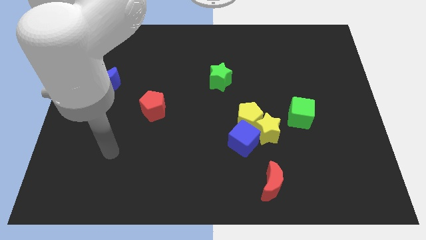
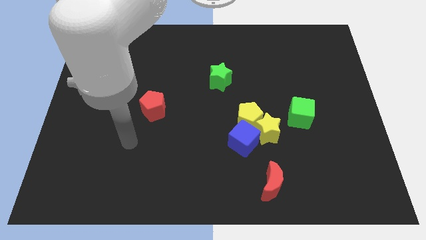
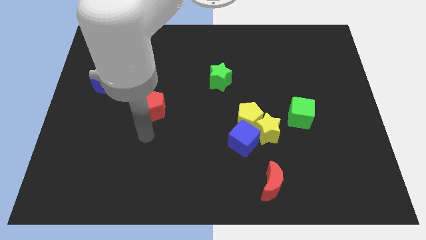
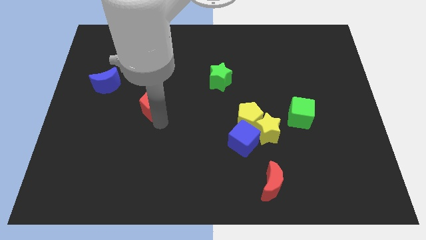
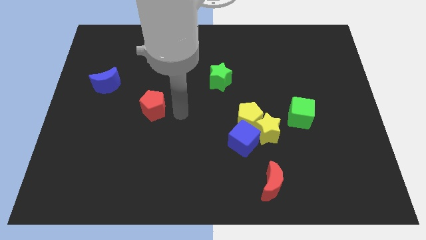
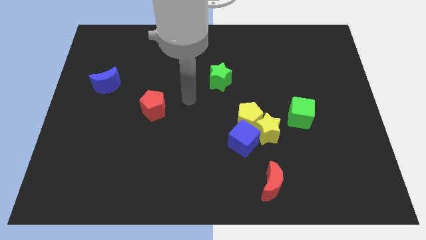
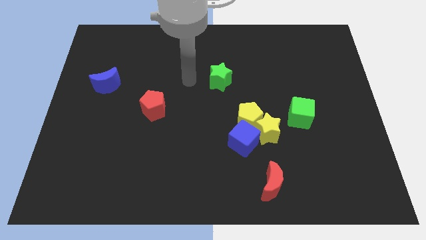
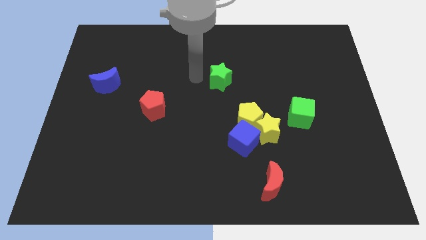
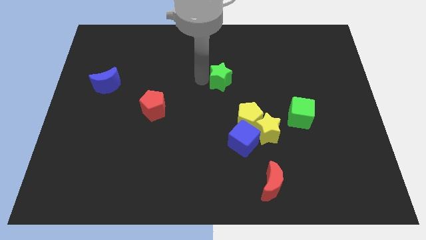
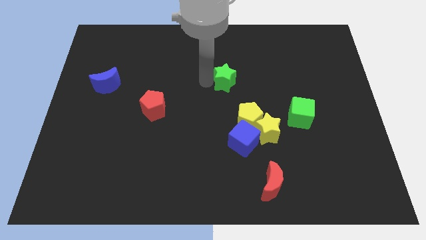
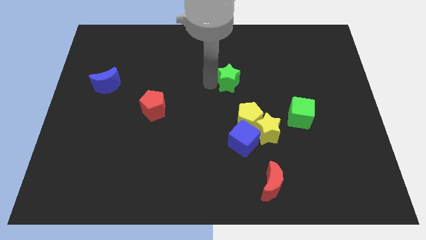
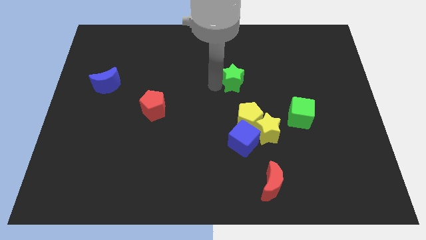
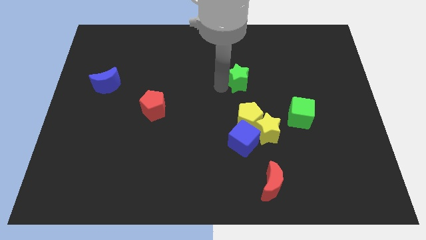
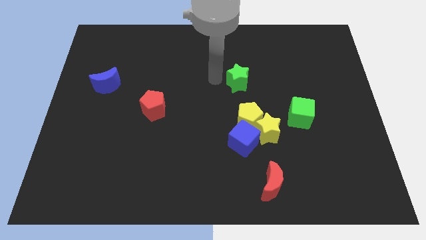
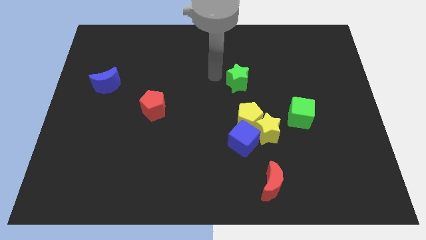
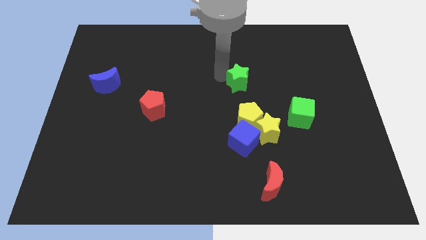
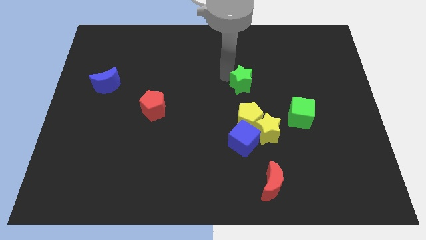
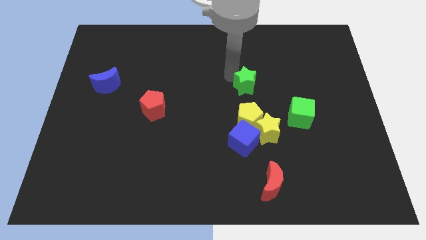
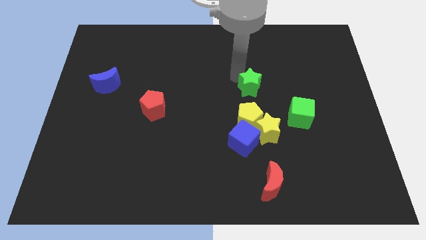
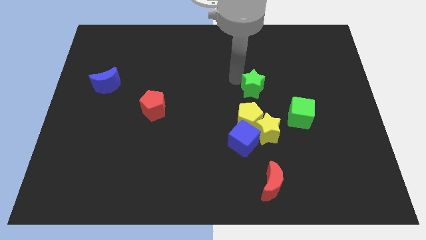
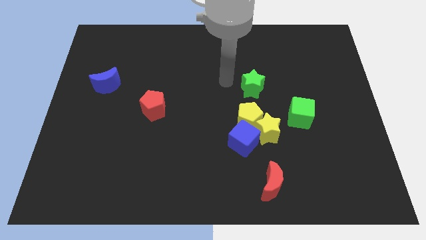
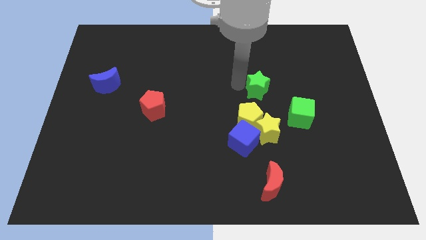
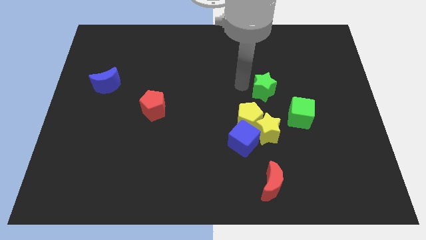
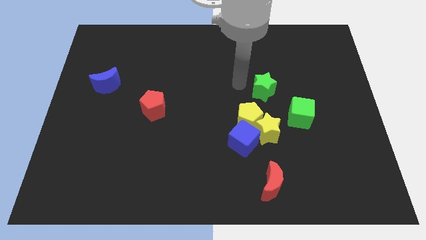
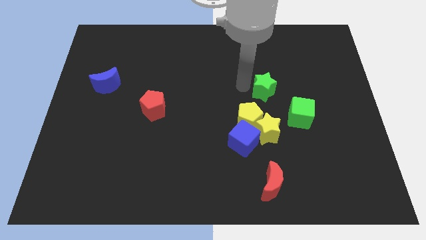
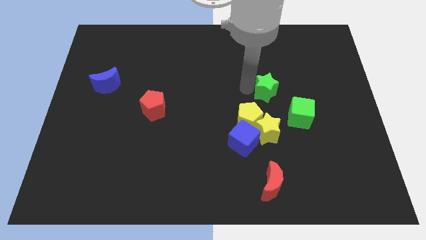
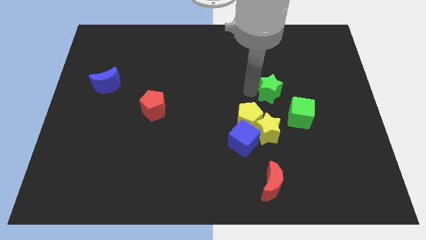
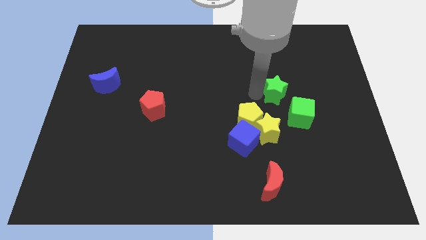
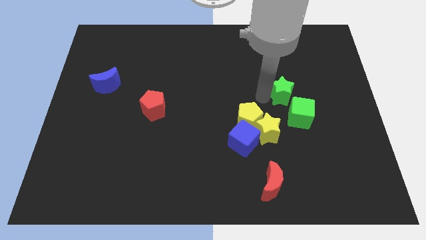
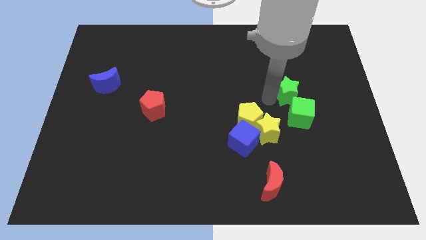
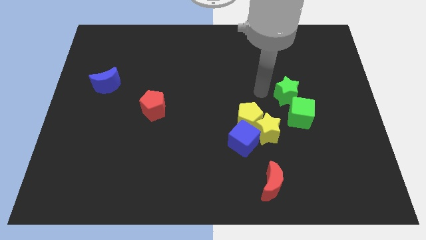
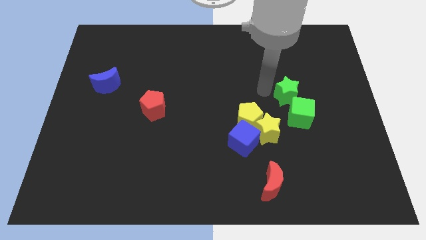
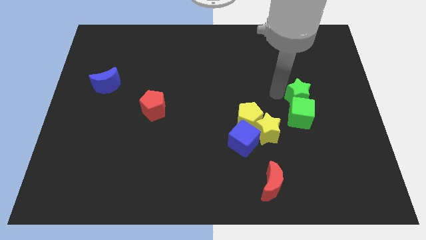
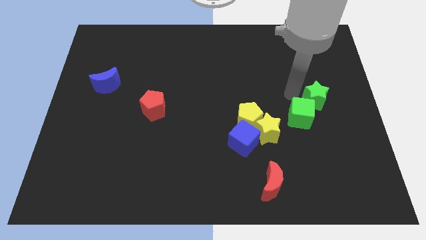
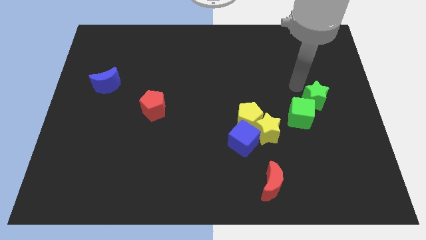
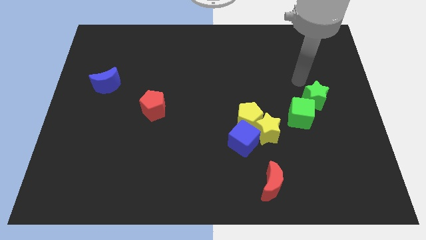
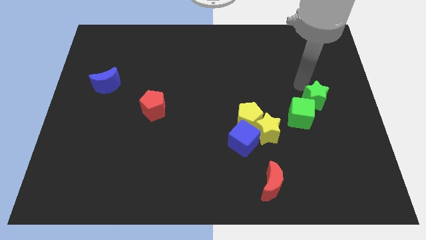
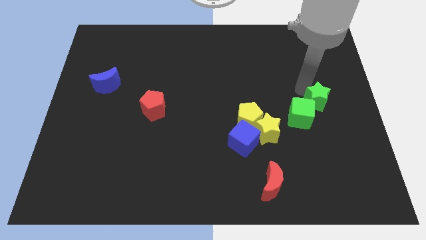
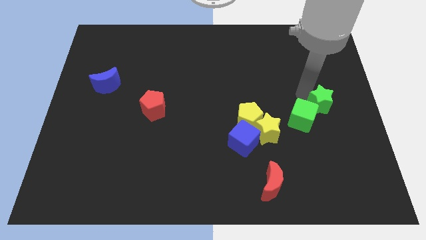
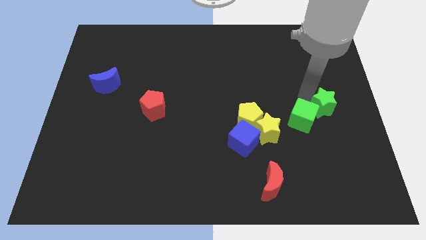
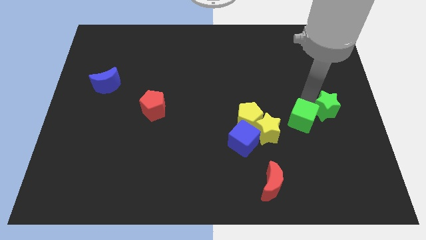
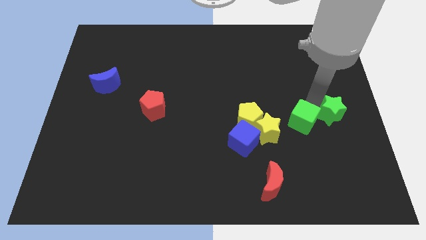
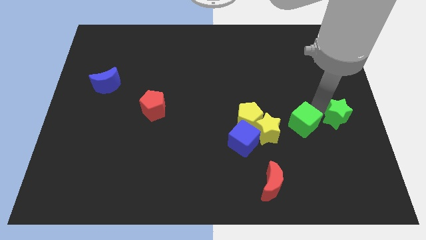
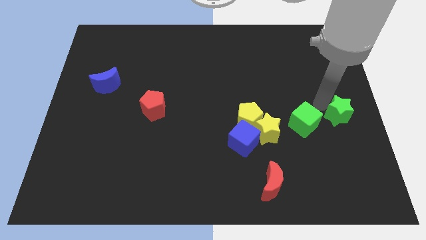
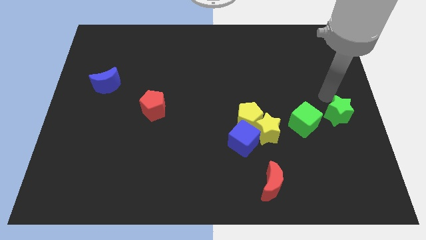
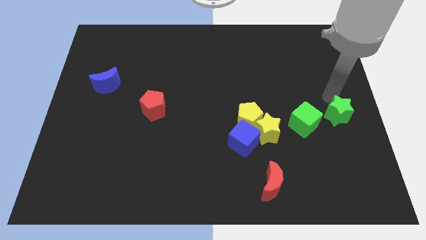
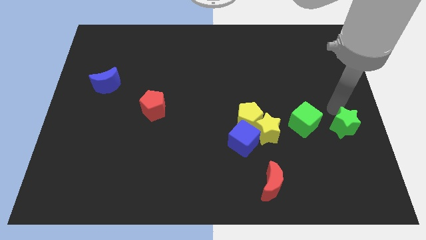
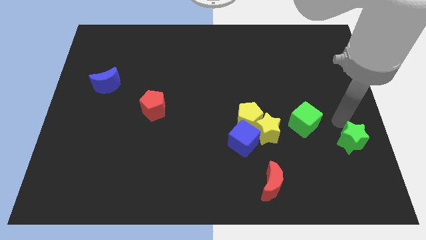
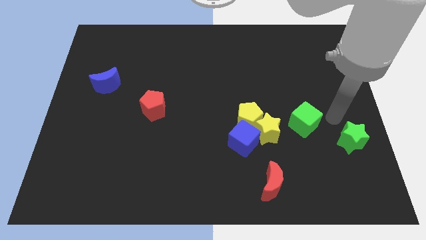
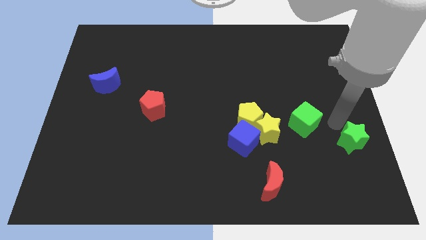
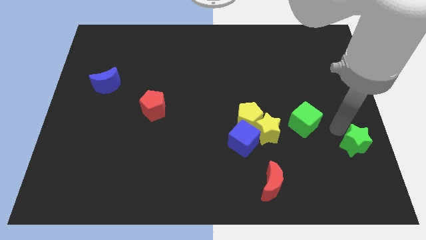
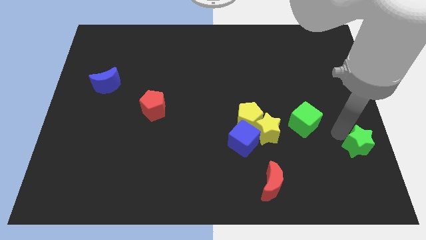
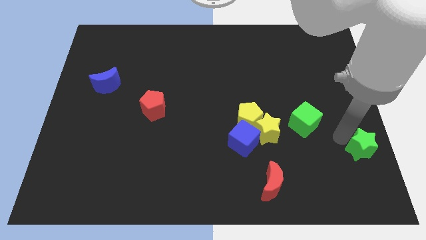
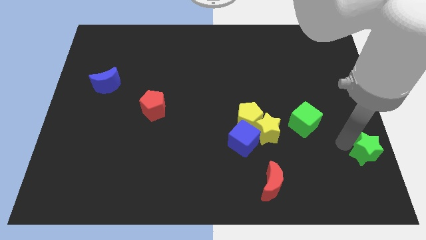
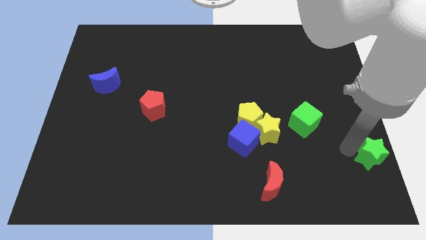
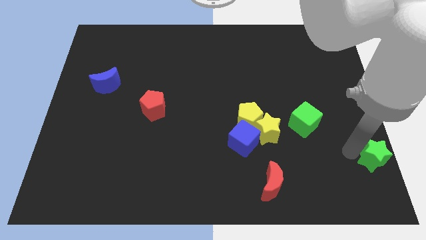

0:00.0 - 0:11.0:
push the green star to the bottom right

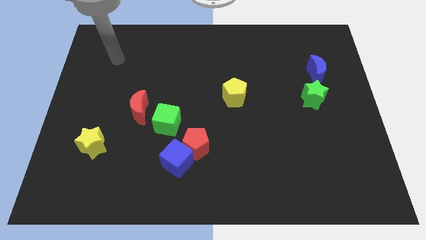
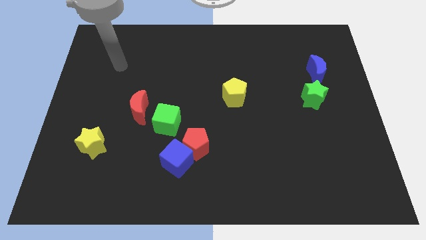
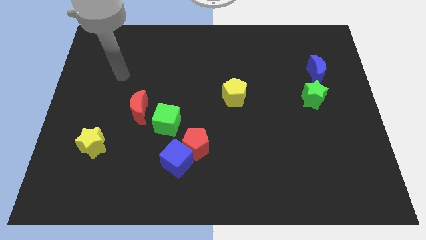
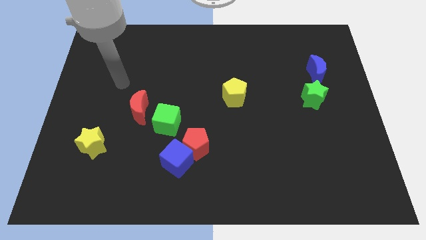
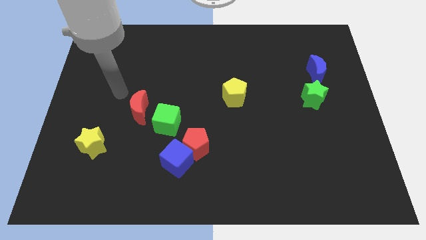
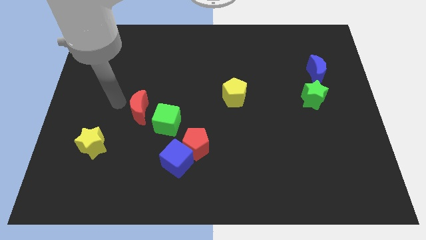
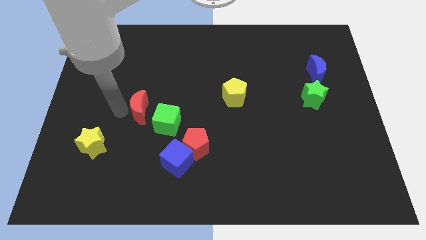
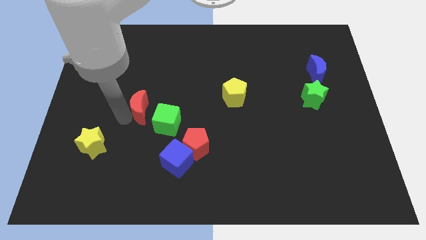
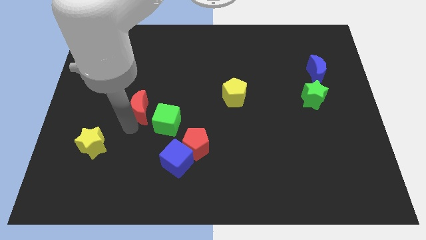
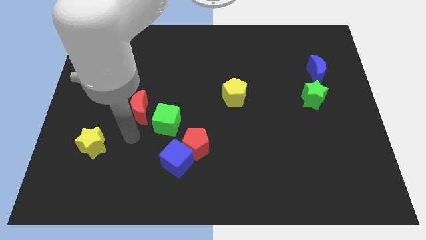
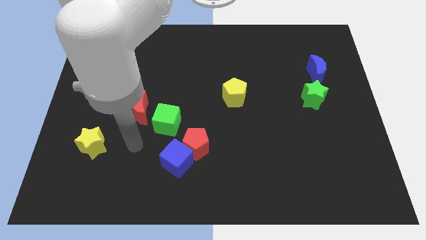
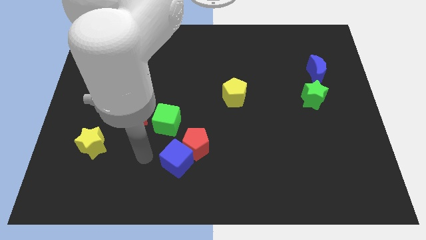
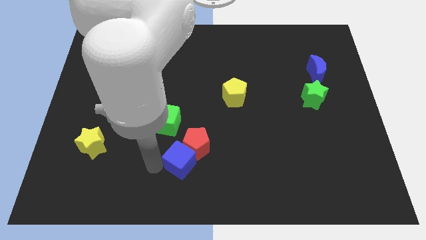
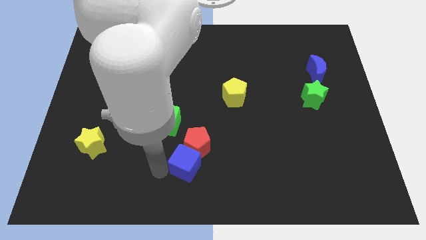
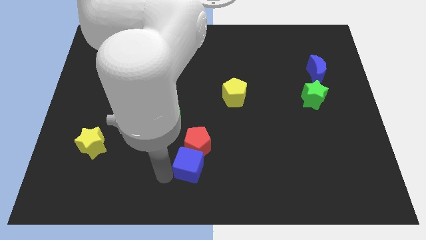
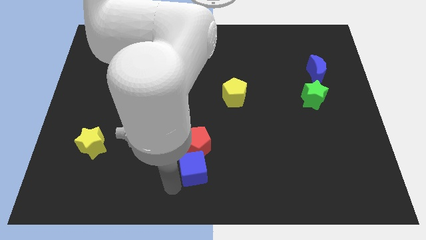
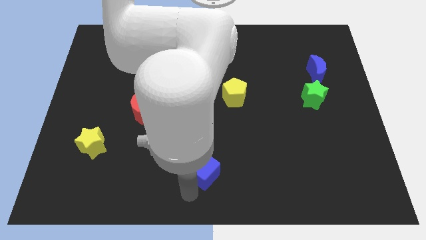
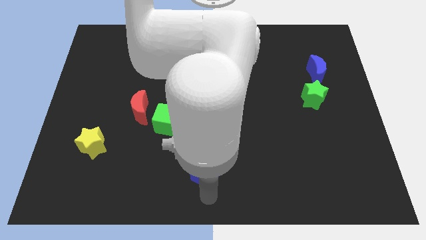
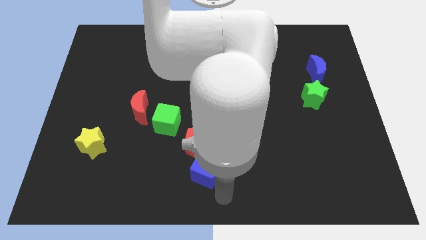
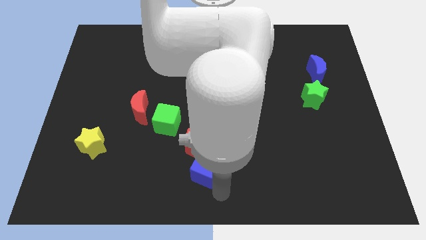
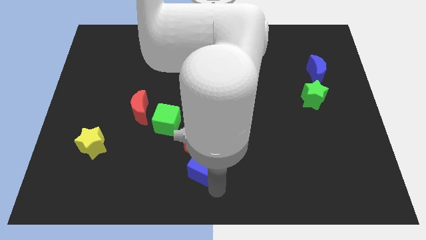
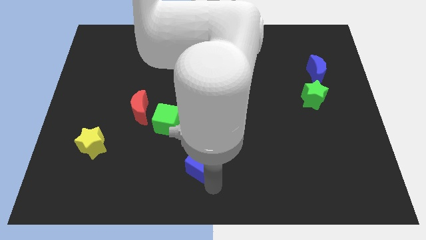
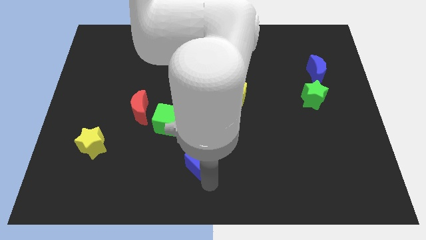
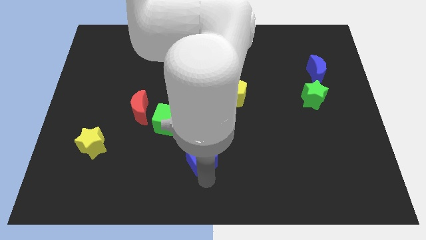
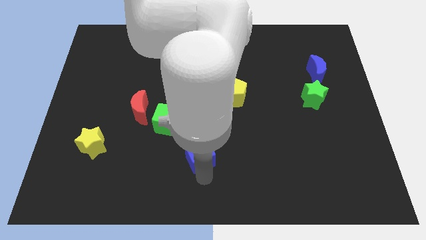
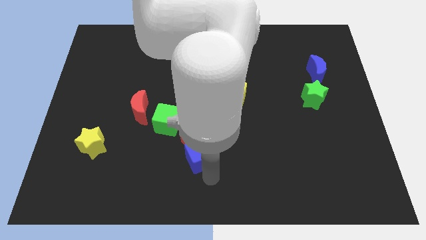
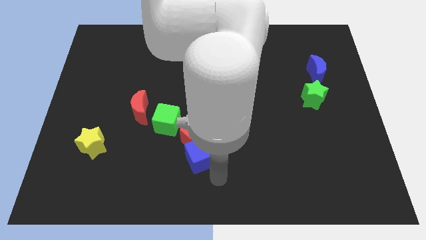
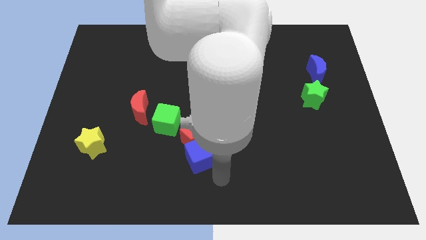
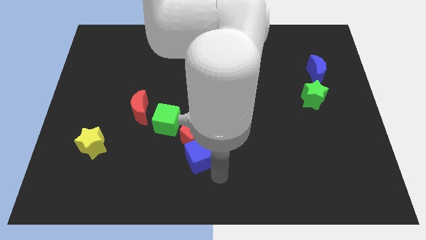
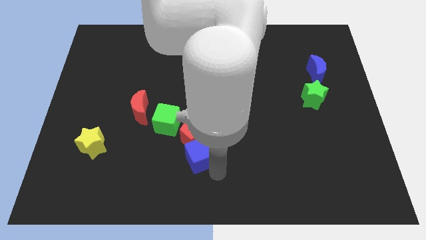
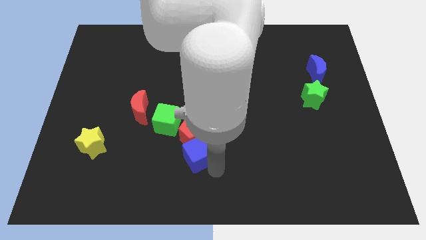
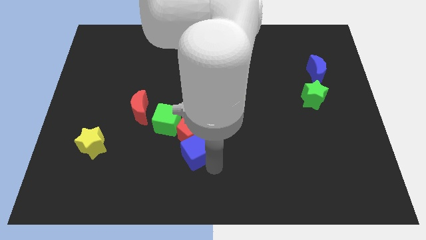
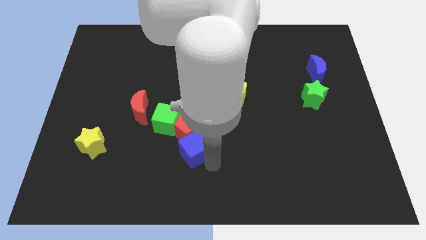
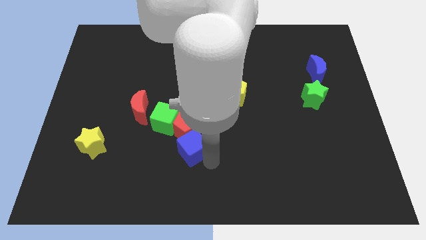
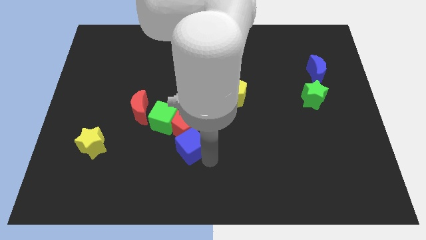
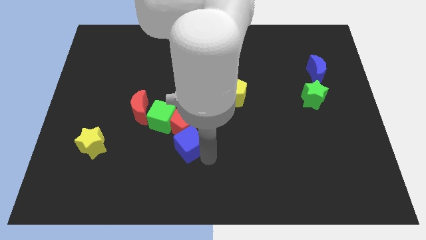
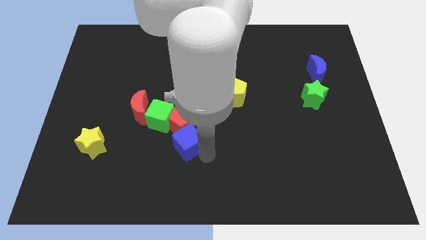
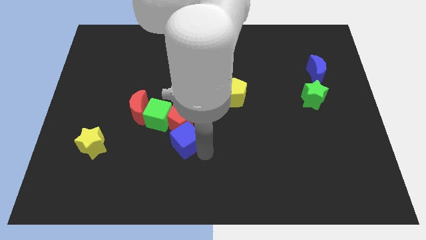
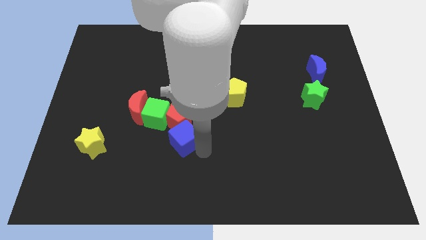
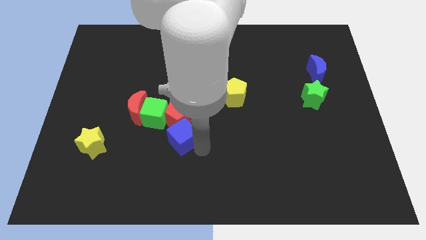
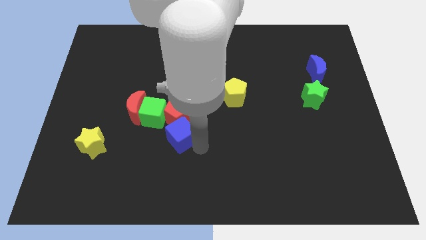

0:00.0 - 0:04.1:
push the blue cube to the center of the board
